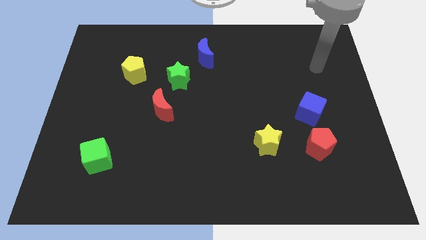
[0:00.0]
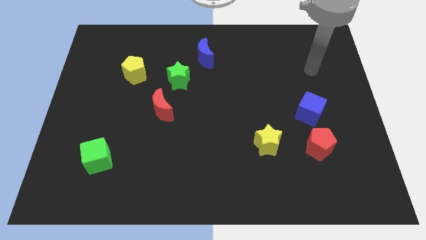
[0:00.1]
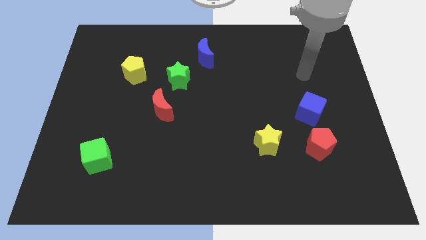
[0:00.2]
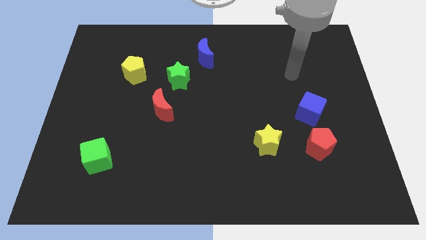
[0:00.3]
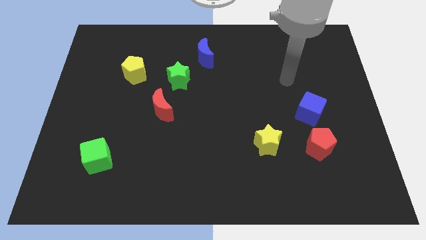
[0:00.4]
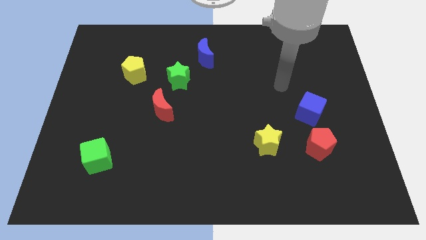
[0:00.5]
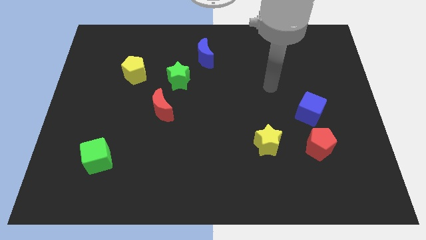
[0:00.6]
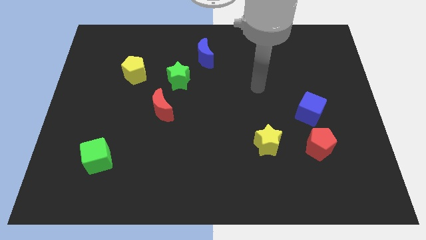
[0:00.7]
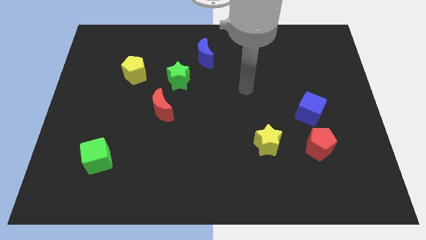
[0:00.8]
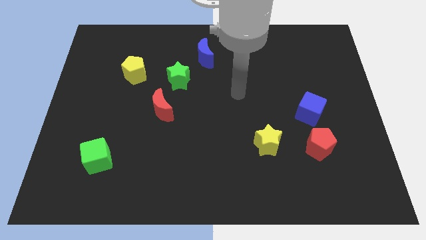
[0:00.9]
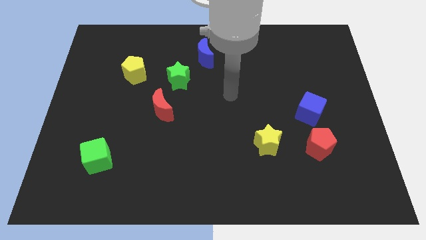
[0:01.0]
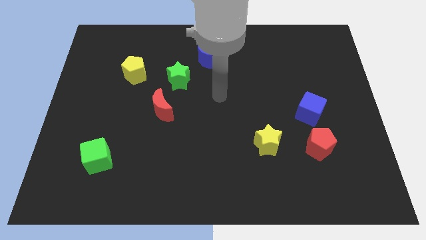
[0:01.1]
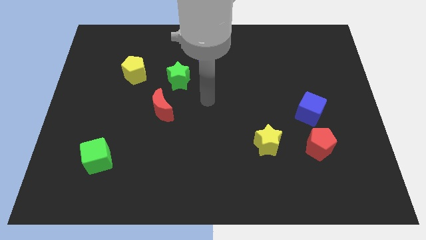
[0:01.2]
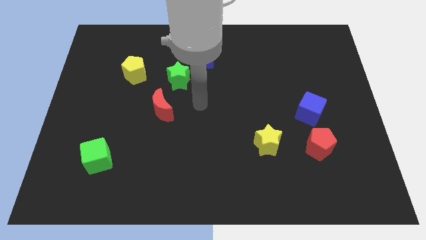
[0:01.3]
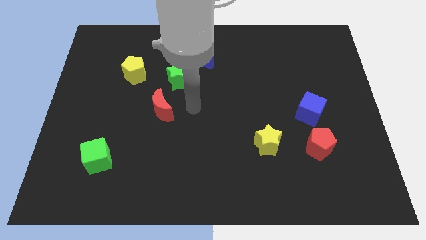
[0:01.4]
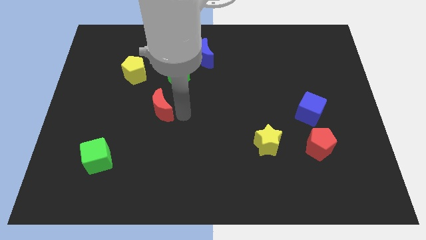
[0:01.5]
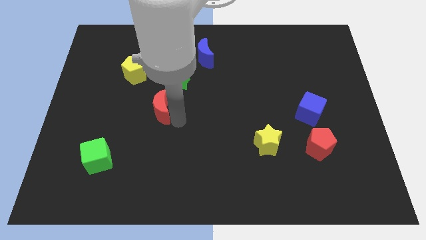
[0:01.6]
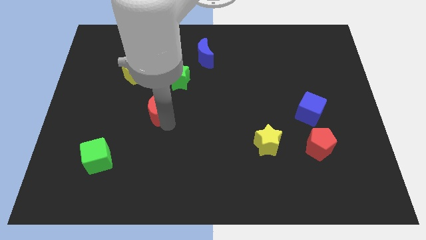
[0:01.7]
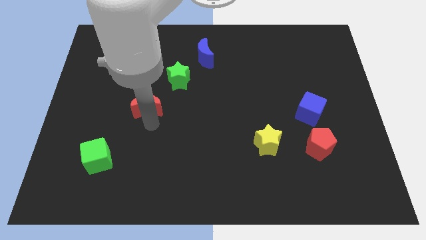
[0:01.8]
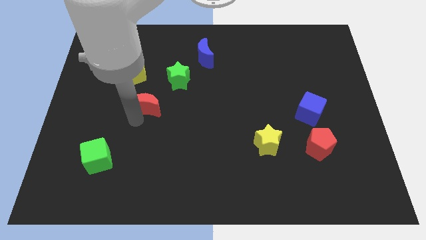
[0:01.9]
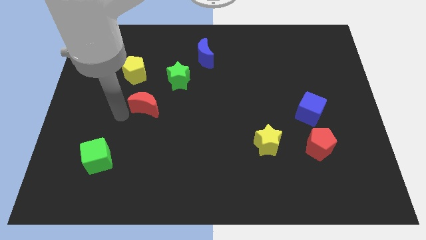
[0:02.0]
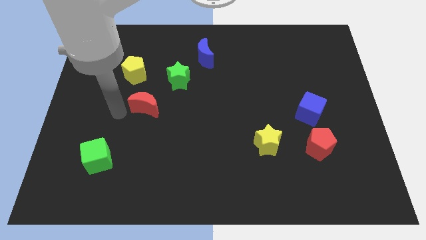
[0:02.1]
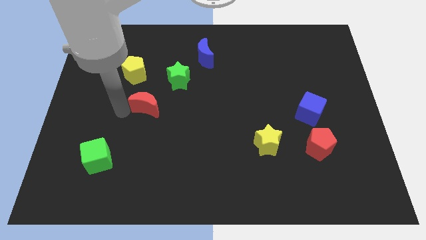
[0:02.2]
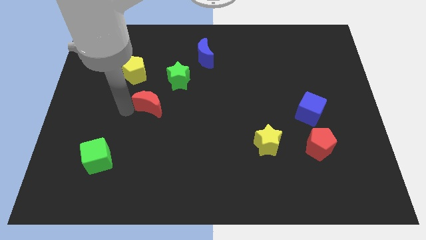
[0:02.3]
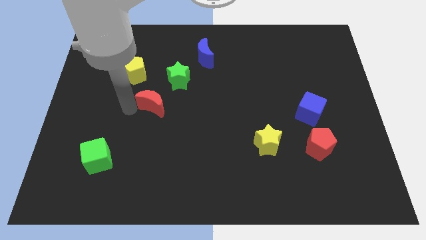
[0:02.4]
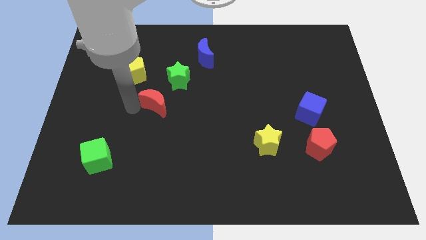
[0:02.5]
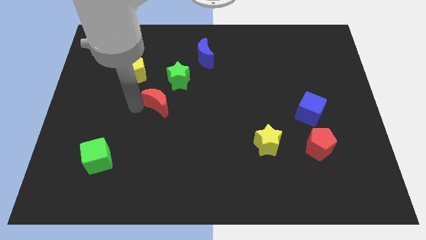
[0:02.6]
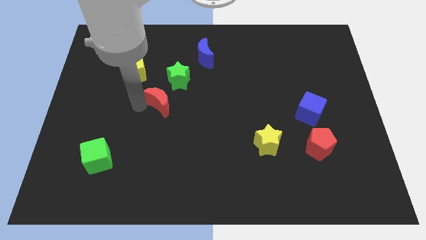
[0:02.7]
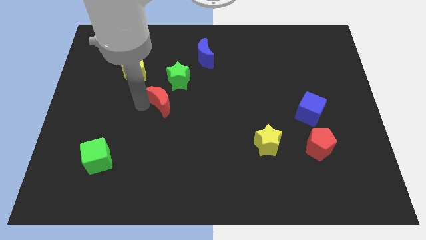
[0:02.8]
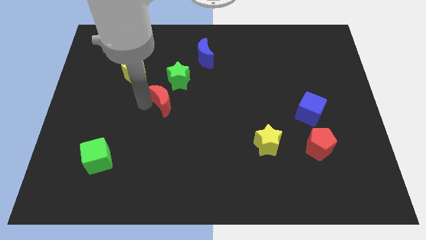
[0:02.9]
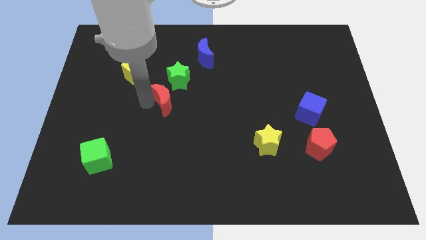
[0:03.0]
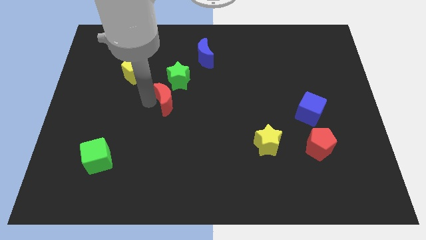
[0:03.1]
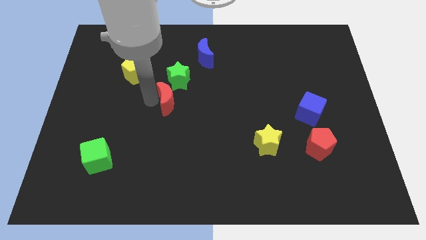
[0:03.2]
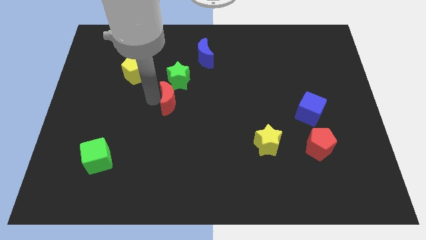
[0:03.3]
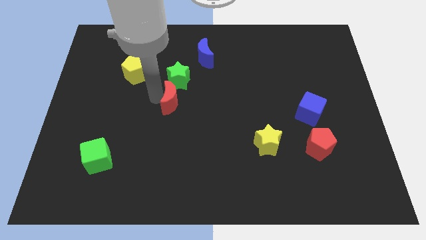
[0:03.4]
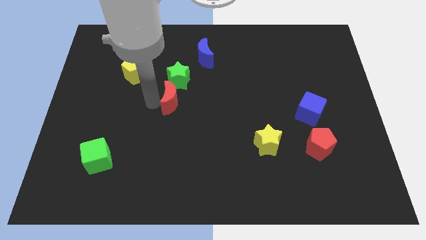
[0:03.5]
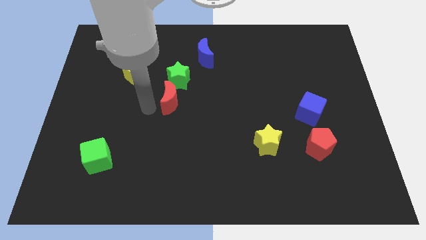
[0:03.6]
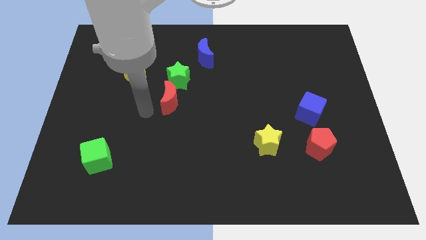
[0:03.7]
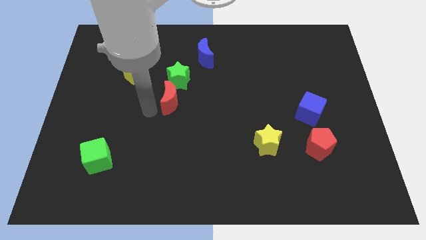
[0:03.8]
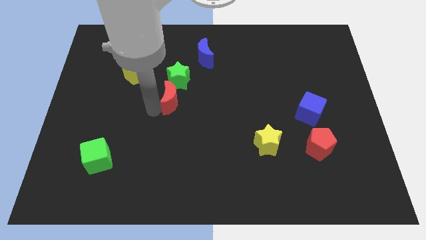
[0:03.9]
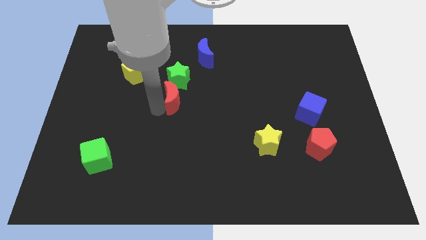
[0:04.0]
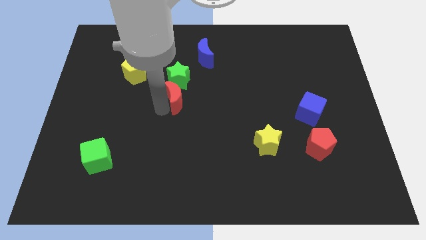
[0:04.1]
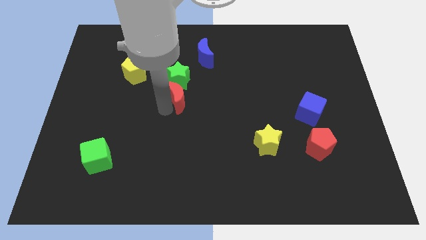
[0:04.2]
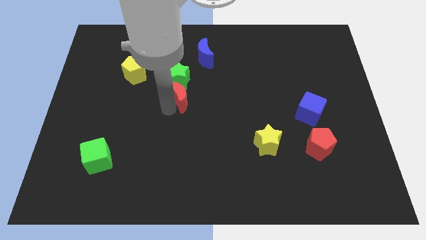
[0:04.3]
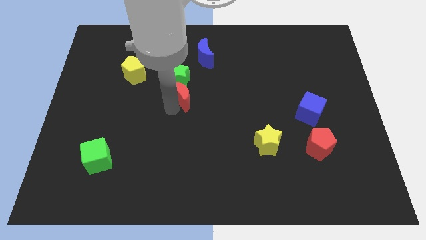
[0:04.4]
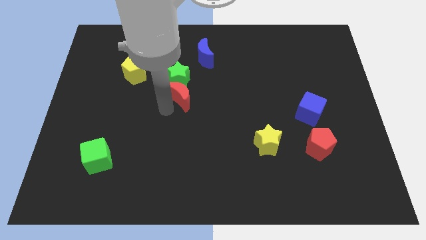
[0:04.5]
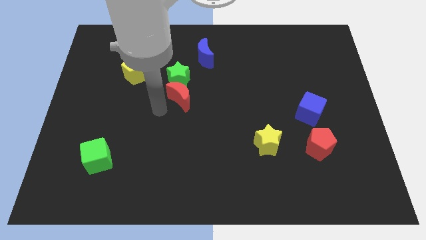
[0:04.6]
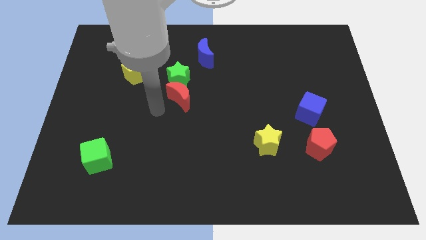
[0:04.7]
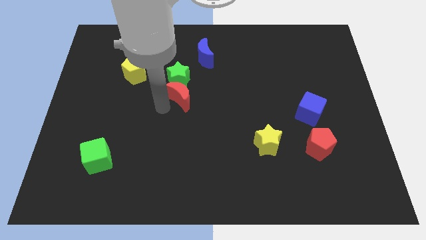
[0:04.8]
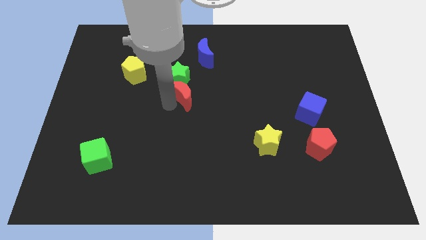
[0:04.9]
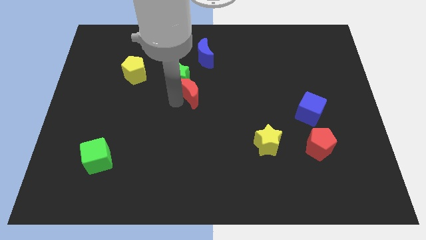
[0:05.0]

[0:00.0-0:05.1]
slightly slide the red moon diagonally upwards and right

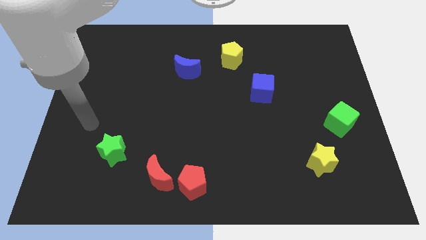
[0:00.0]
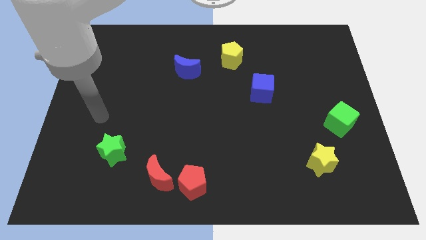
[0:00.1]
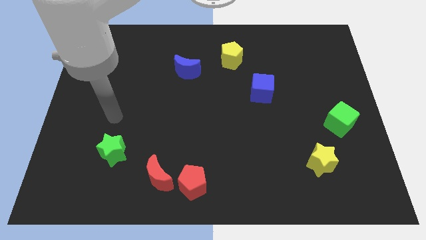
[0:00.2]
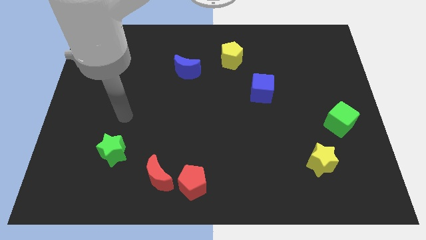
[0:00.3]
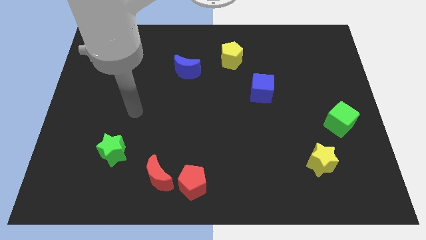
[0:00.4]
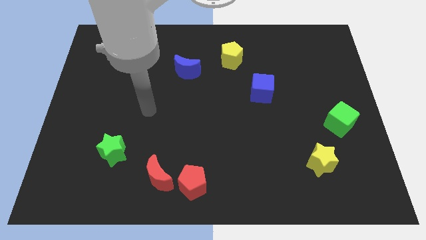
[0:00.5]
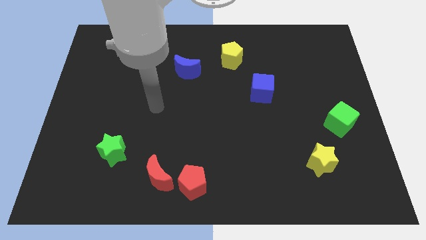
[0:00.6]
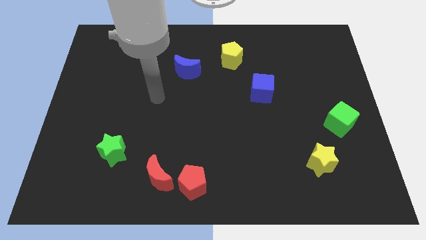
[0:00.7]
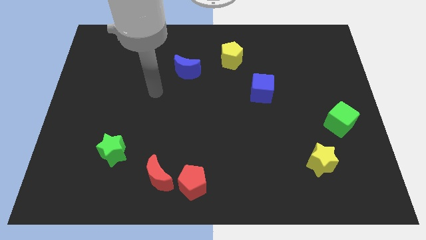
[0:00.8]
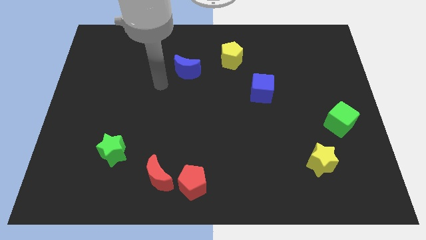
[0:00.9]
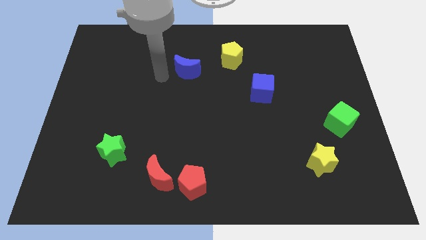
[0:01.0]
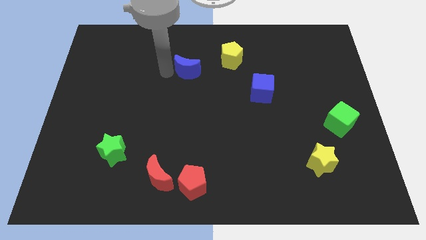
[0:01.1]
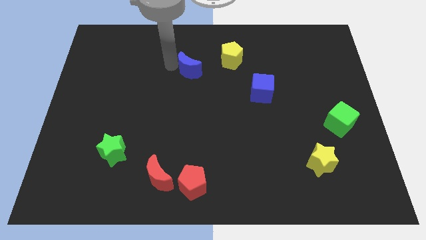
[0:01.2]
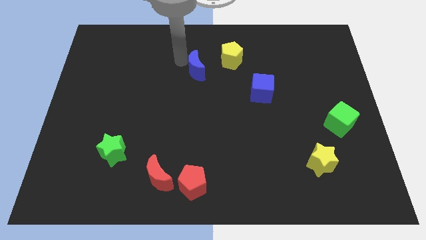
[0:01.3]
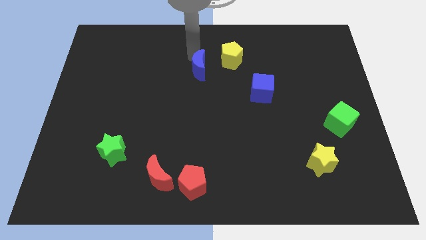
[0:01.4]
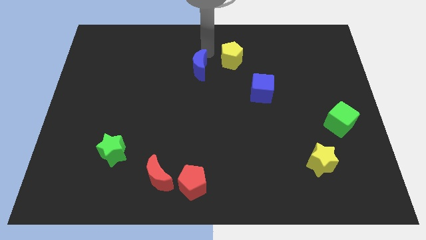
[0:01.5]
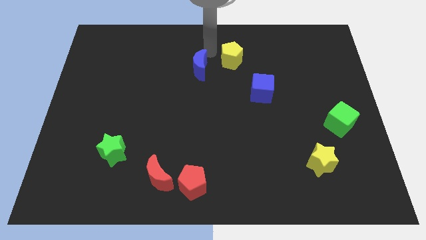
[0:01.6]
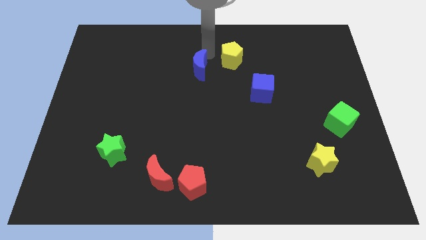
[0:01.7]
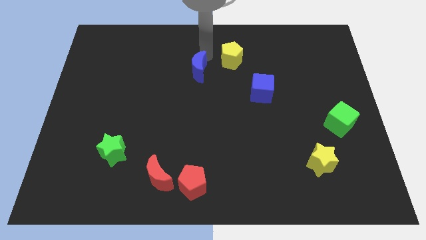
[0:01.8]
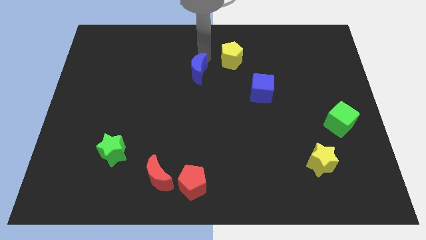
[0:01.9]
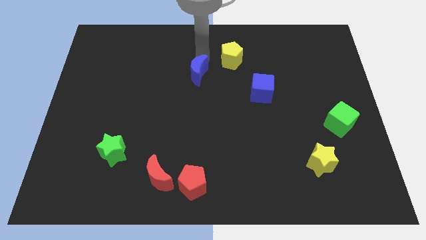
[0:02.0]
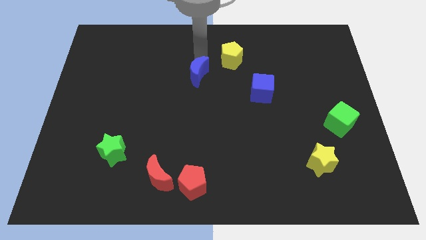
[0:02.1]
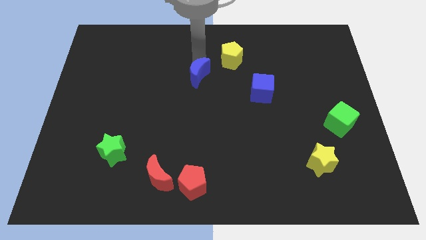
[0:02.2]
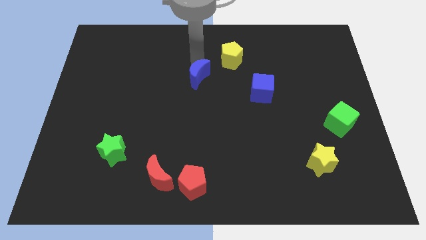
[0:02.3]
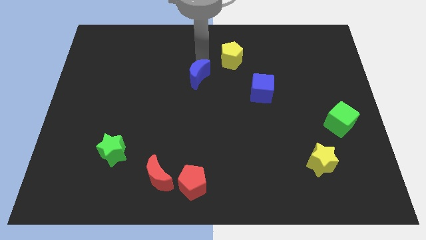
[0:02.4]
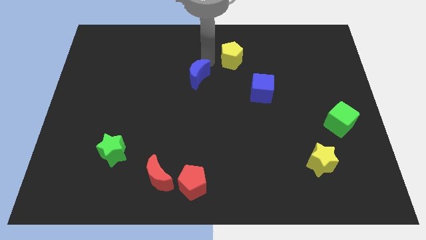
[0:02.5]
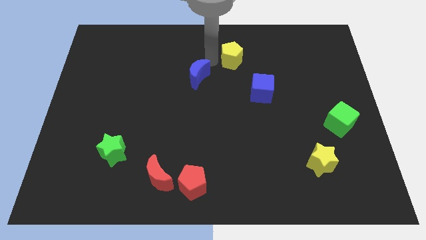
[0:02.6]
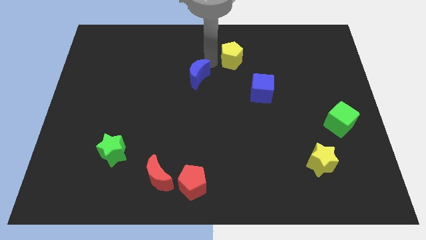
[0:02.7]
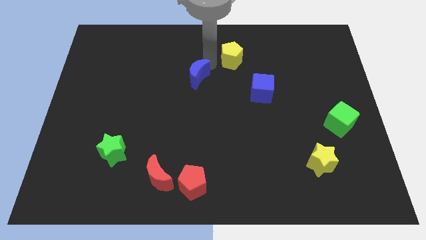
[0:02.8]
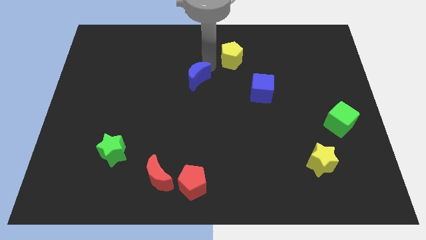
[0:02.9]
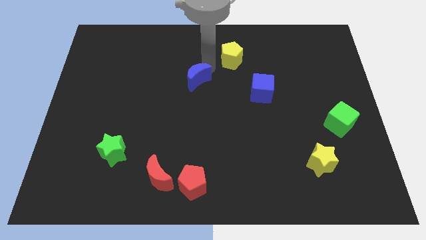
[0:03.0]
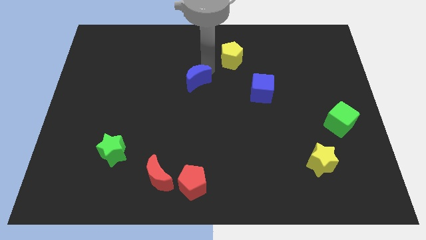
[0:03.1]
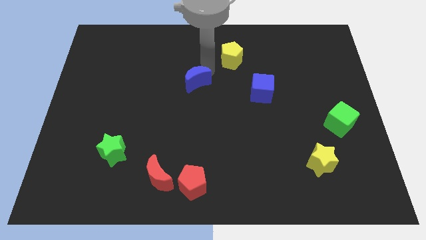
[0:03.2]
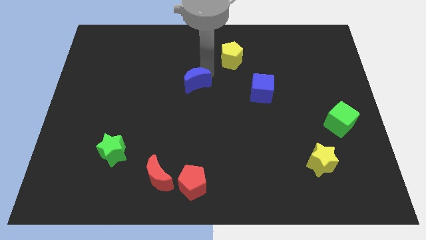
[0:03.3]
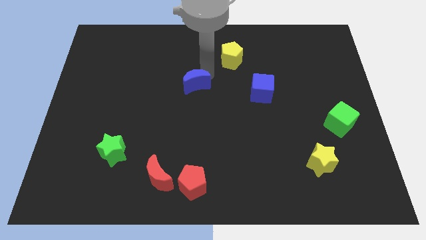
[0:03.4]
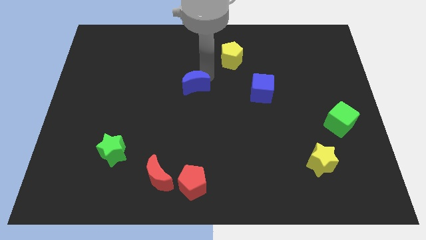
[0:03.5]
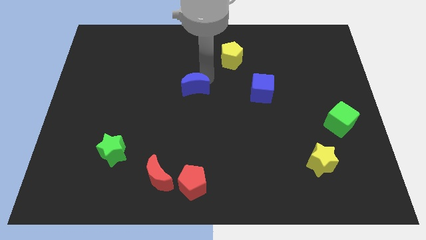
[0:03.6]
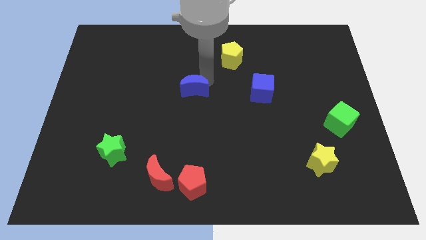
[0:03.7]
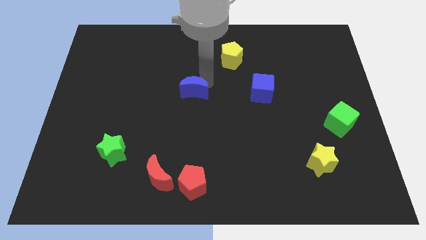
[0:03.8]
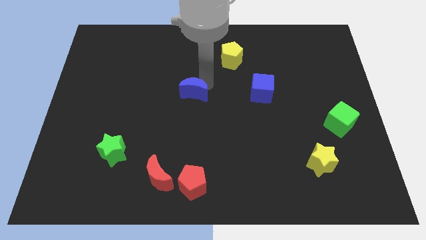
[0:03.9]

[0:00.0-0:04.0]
slide the blue moon downwards a little bit
